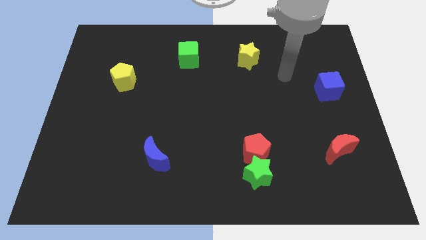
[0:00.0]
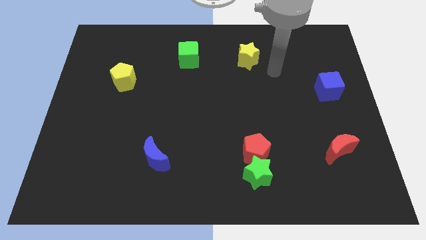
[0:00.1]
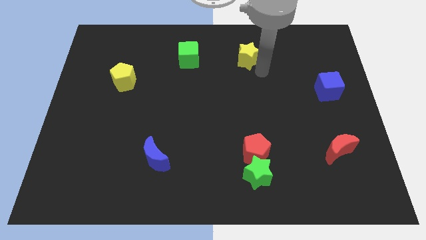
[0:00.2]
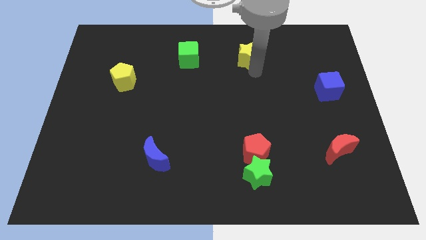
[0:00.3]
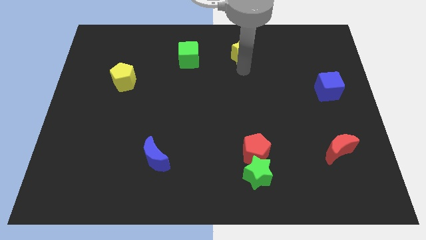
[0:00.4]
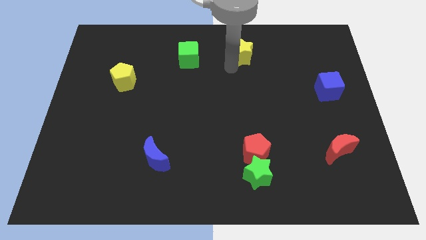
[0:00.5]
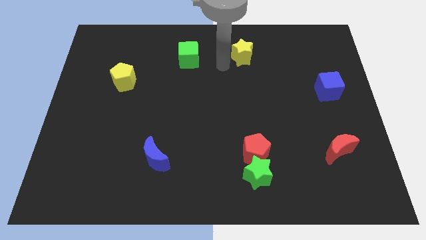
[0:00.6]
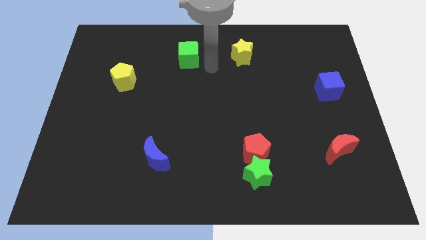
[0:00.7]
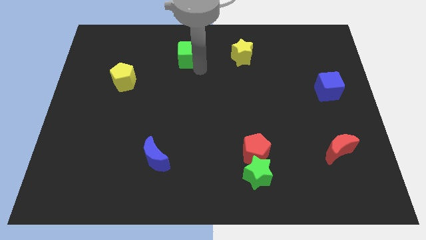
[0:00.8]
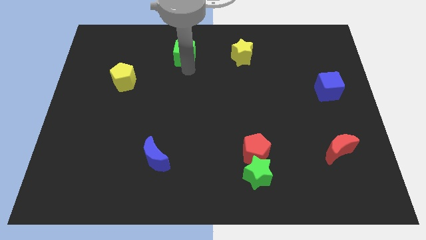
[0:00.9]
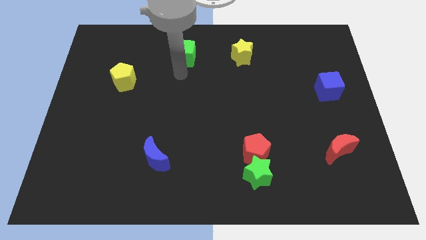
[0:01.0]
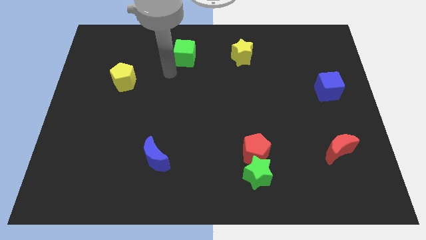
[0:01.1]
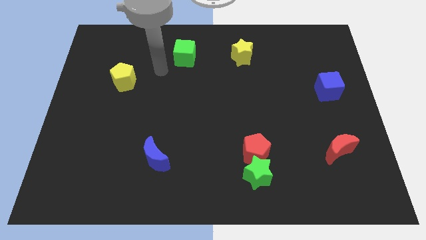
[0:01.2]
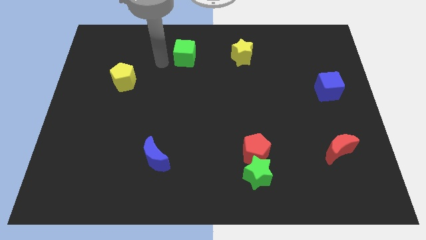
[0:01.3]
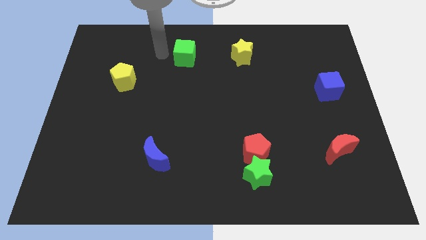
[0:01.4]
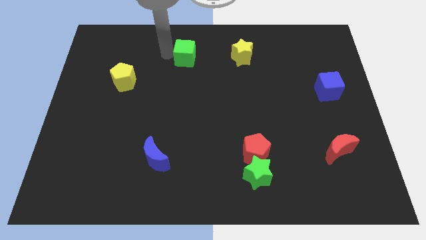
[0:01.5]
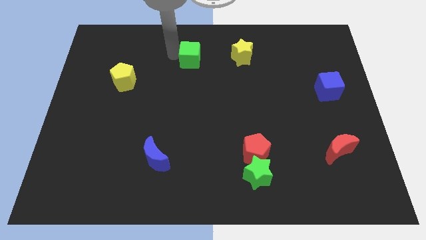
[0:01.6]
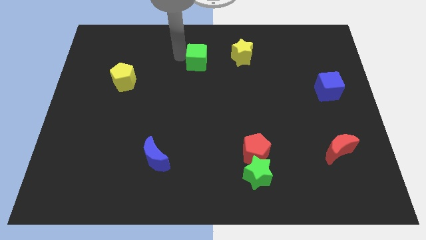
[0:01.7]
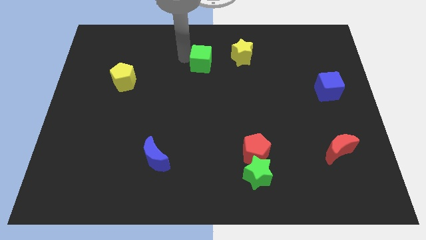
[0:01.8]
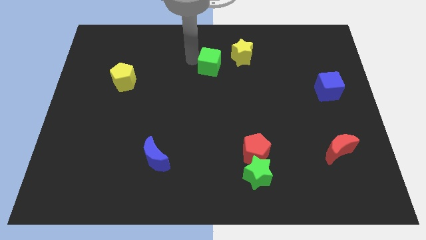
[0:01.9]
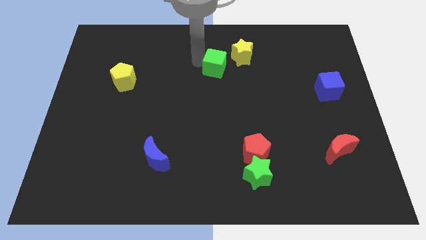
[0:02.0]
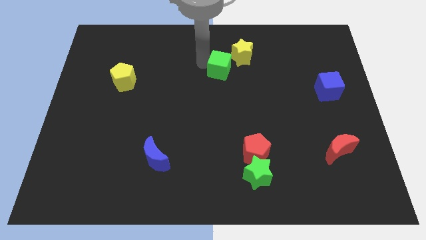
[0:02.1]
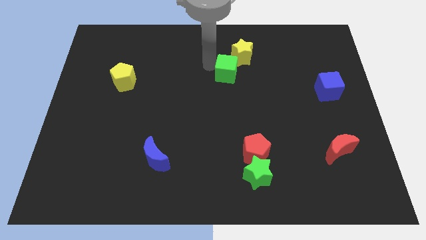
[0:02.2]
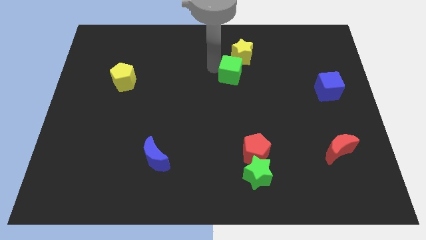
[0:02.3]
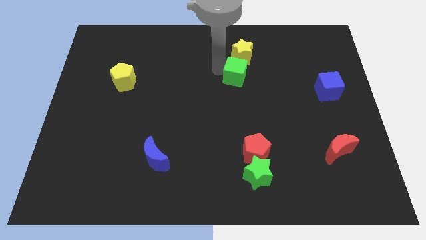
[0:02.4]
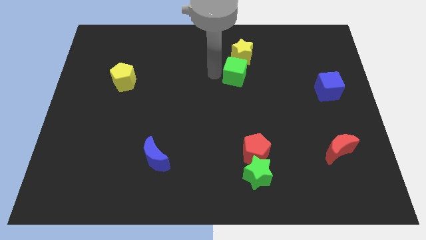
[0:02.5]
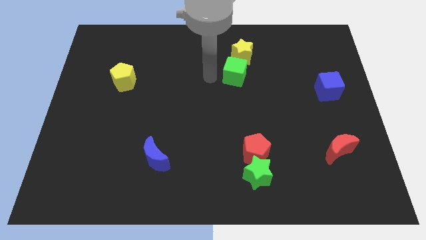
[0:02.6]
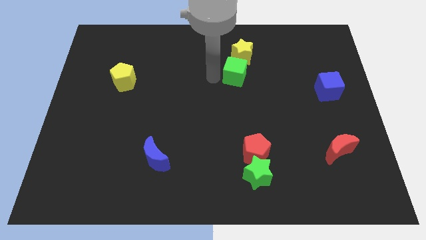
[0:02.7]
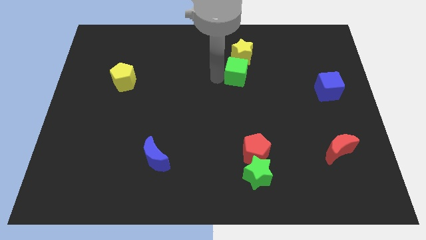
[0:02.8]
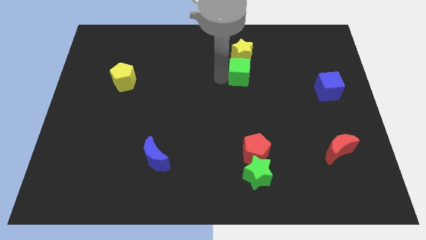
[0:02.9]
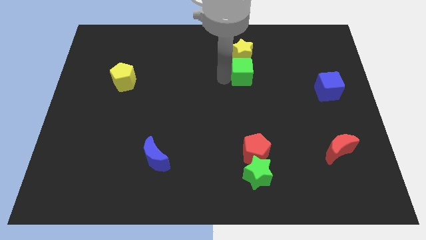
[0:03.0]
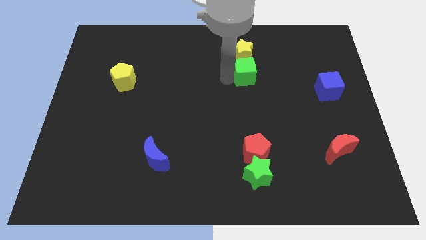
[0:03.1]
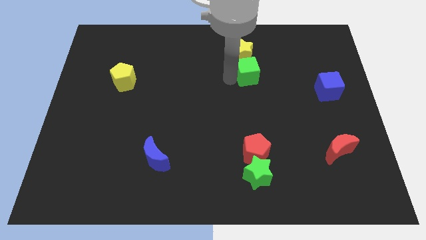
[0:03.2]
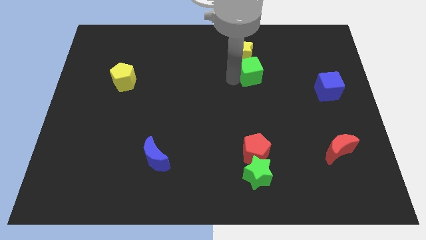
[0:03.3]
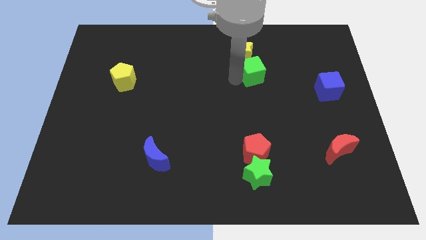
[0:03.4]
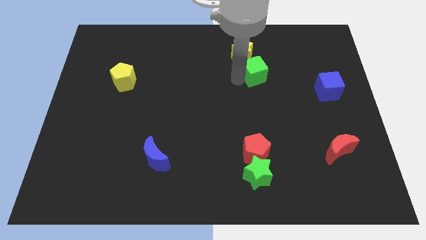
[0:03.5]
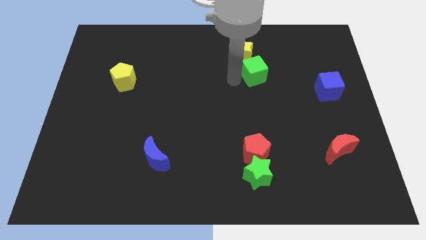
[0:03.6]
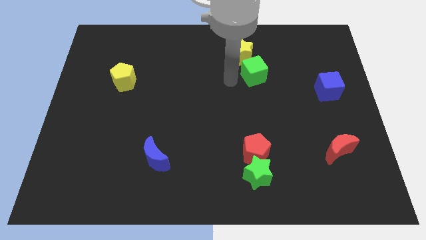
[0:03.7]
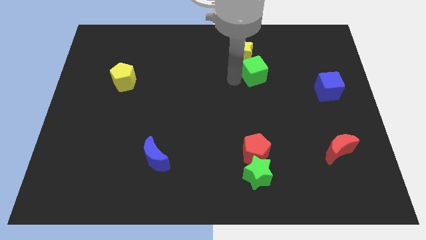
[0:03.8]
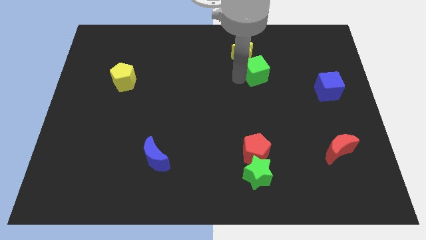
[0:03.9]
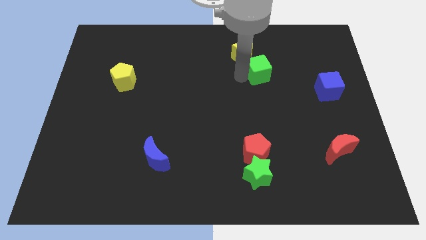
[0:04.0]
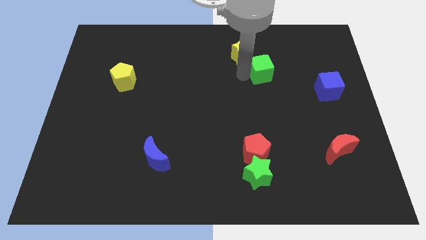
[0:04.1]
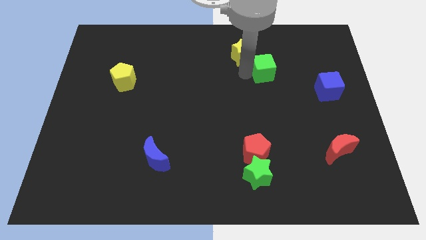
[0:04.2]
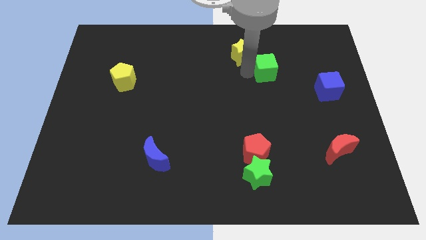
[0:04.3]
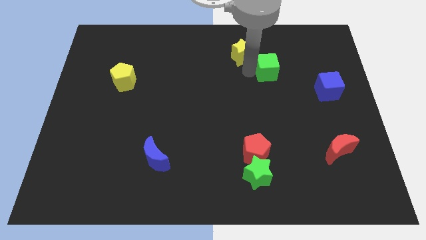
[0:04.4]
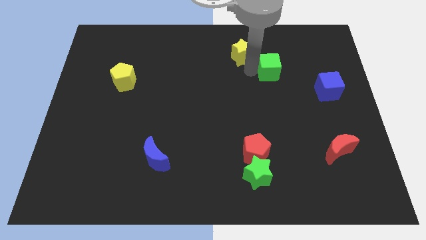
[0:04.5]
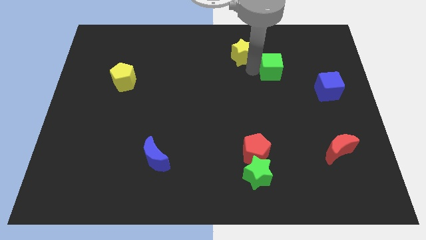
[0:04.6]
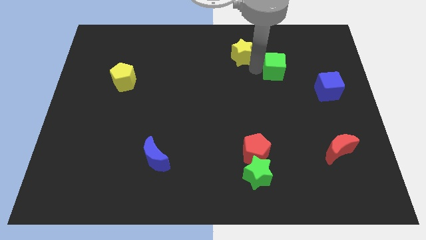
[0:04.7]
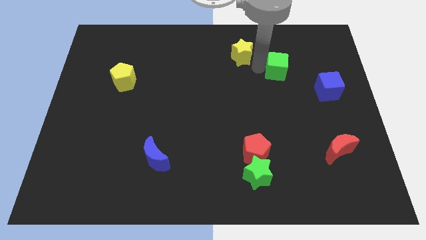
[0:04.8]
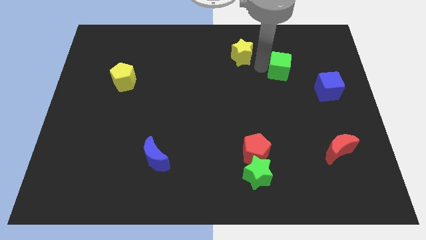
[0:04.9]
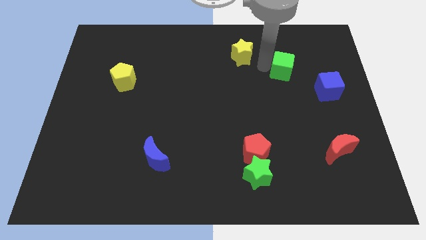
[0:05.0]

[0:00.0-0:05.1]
move the green cube diagonally up and to the left of the blue cube
